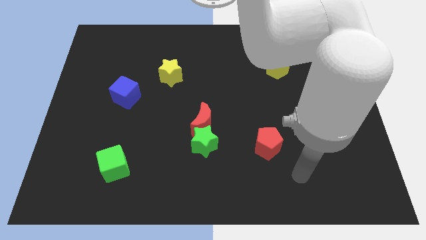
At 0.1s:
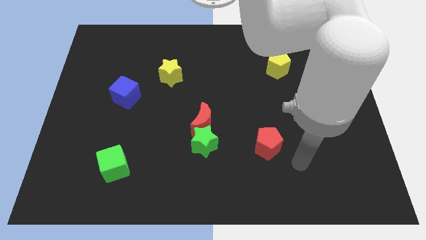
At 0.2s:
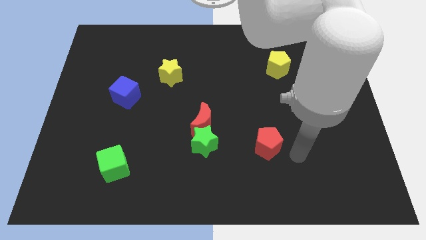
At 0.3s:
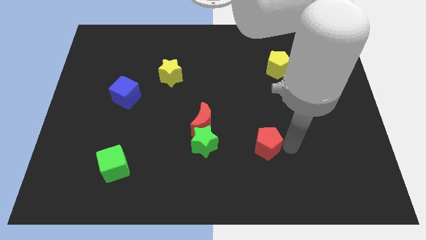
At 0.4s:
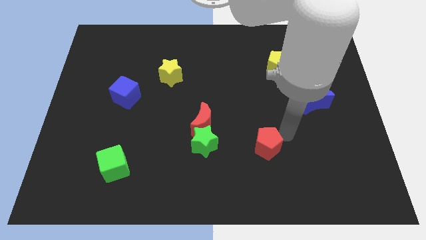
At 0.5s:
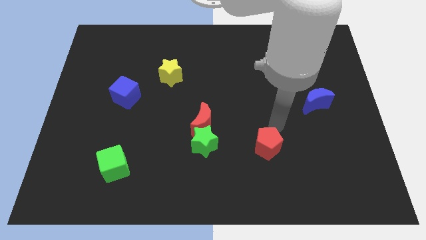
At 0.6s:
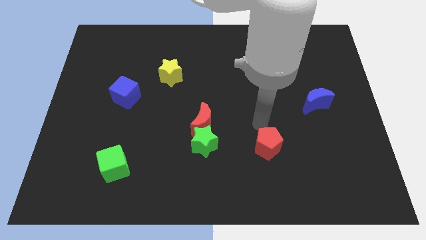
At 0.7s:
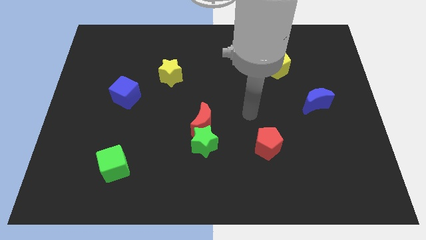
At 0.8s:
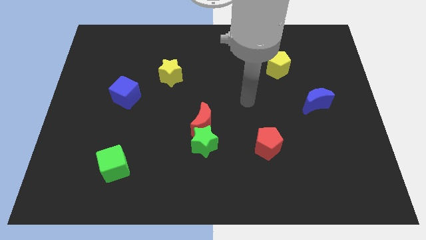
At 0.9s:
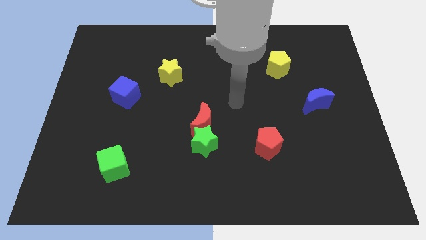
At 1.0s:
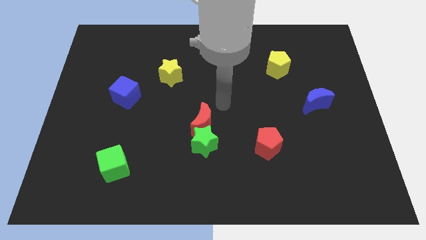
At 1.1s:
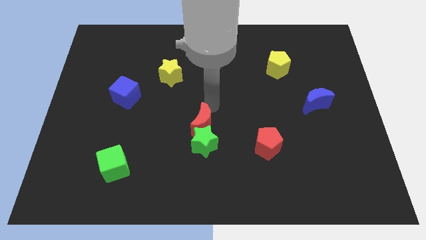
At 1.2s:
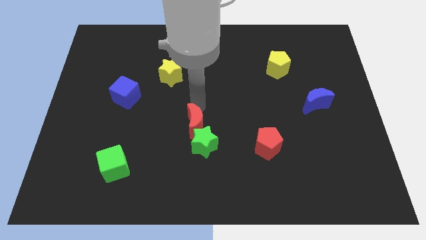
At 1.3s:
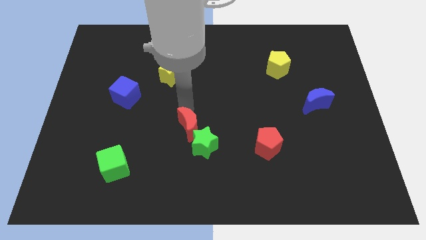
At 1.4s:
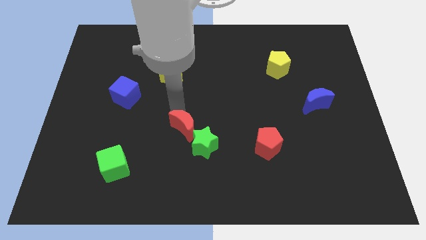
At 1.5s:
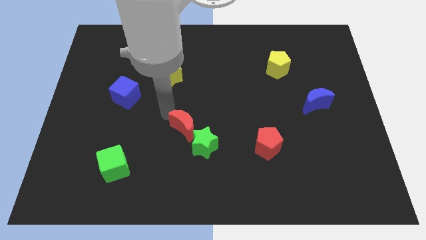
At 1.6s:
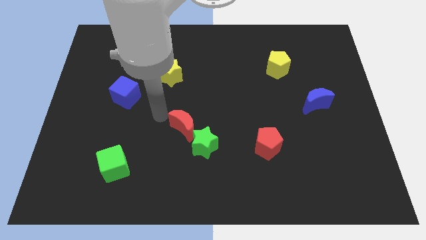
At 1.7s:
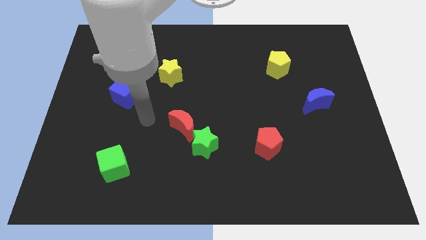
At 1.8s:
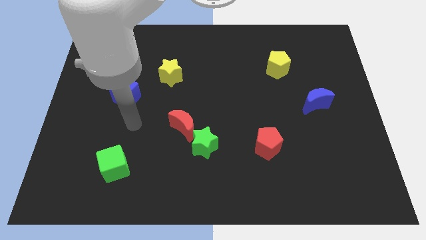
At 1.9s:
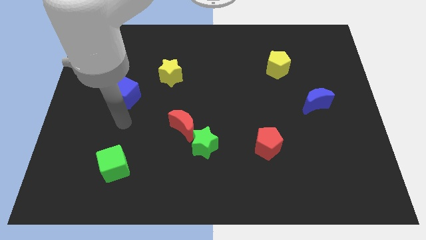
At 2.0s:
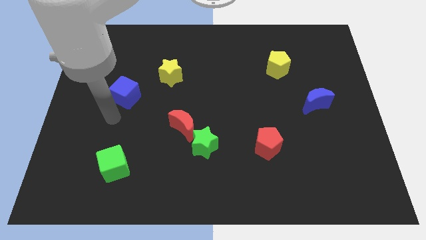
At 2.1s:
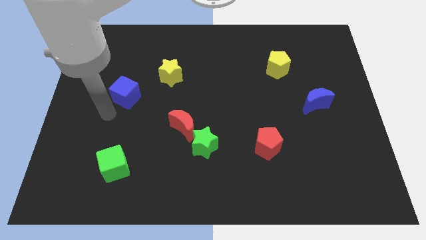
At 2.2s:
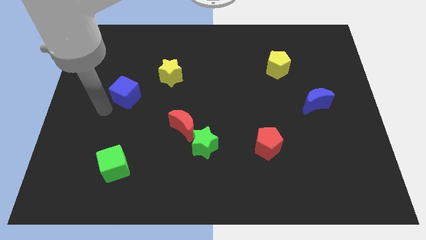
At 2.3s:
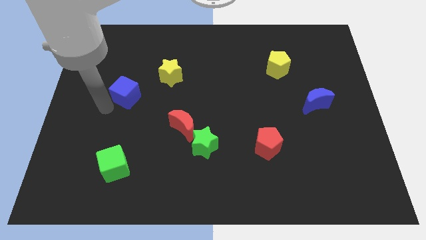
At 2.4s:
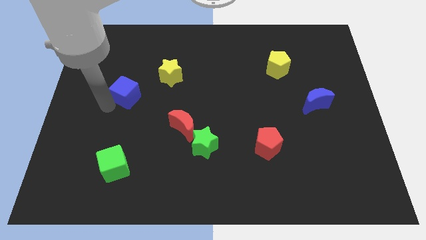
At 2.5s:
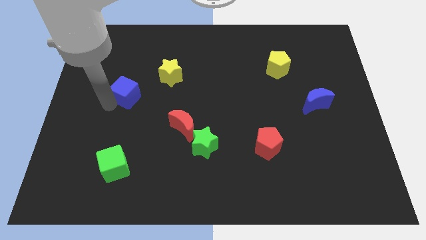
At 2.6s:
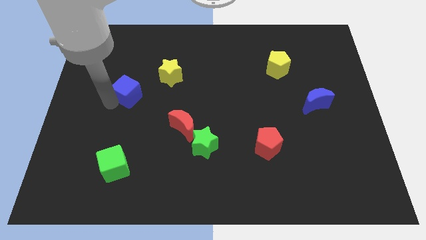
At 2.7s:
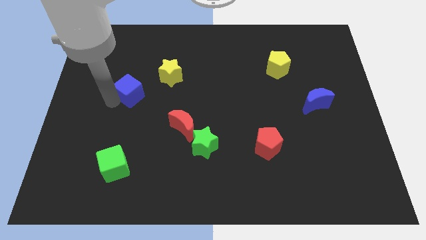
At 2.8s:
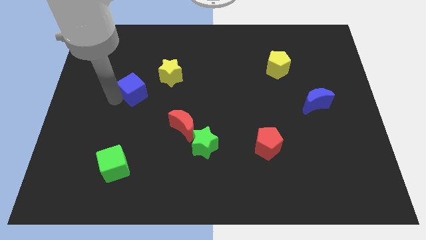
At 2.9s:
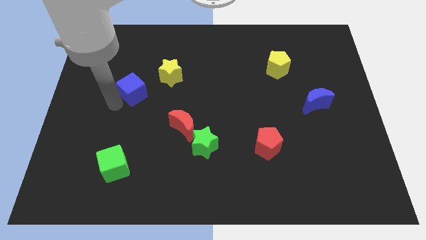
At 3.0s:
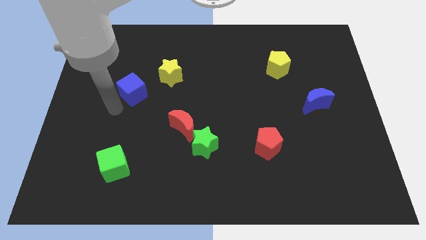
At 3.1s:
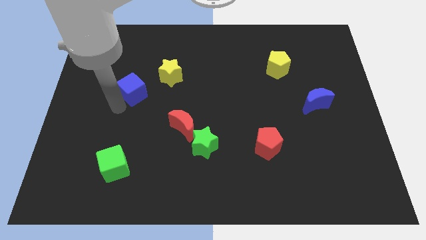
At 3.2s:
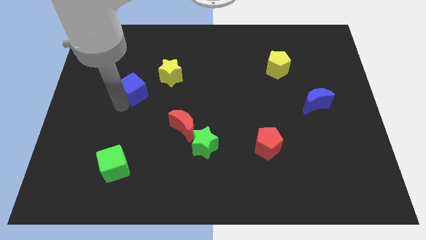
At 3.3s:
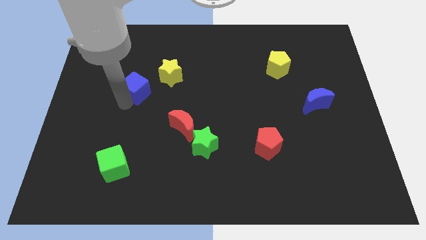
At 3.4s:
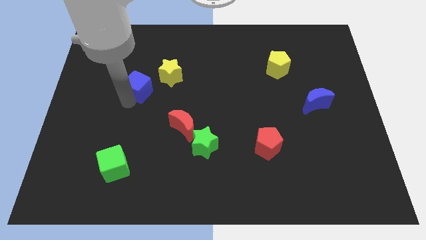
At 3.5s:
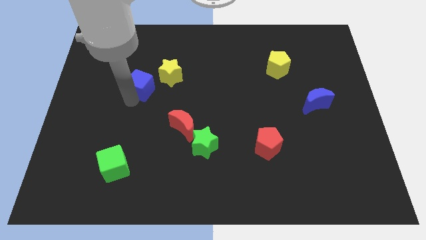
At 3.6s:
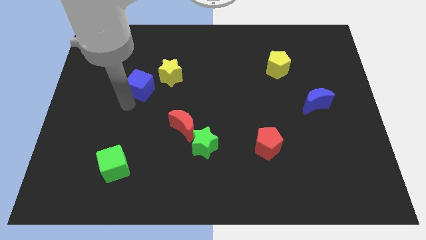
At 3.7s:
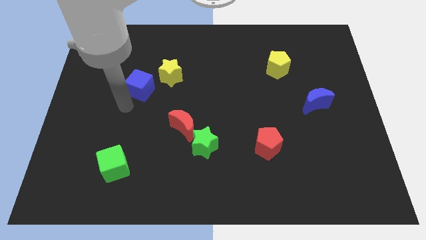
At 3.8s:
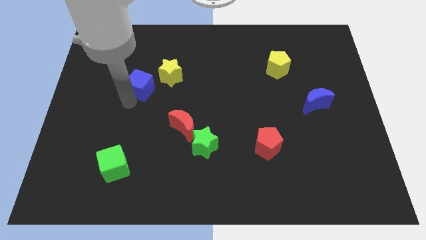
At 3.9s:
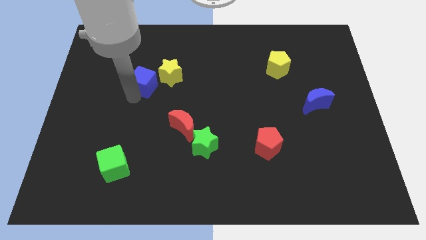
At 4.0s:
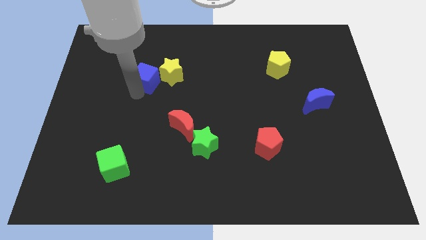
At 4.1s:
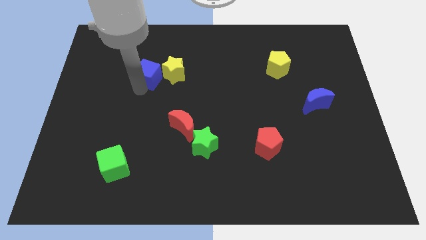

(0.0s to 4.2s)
slide the blue cube upwards and right a little

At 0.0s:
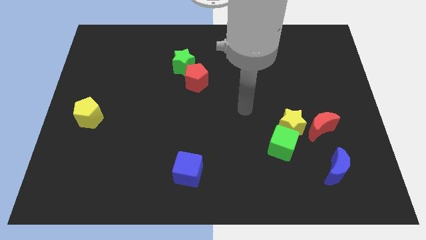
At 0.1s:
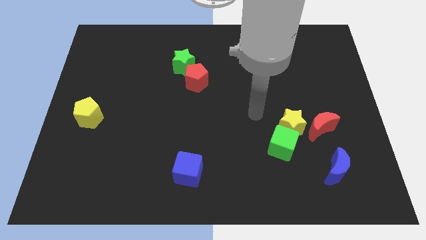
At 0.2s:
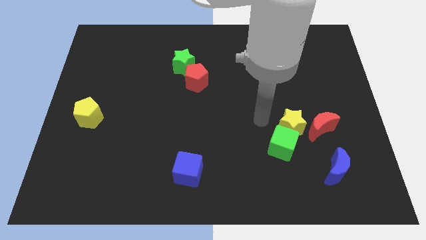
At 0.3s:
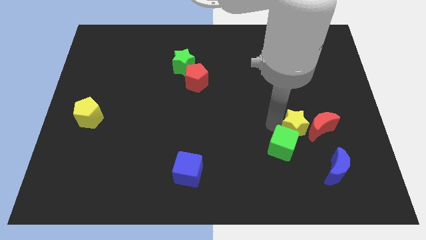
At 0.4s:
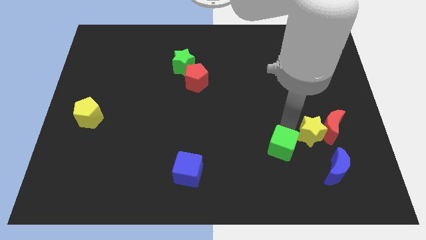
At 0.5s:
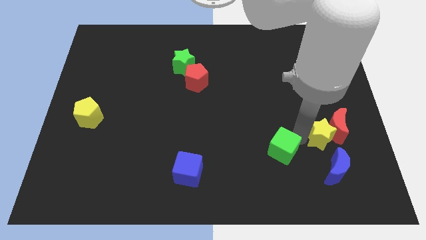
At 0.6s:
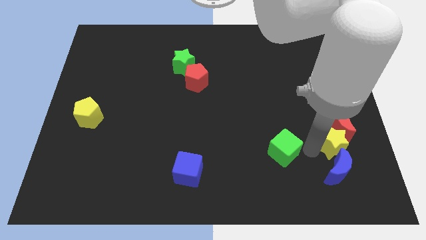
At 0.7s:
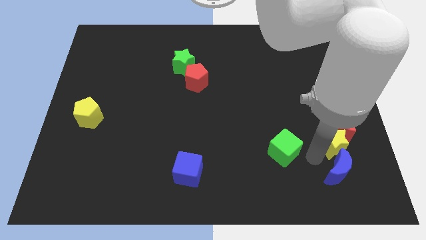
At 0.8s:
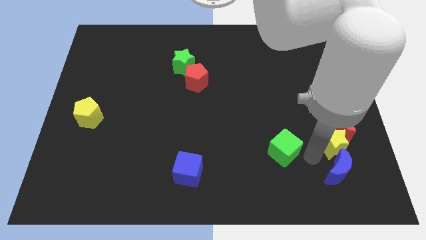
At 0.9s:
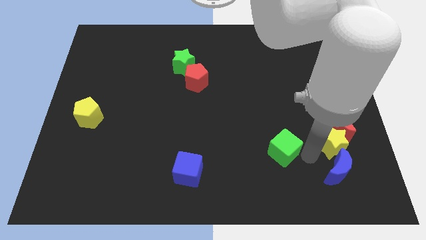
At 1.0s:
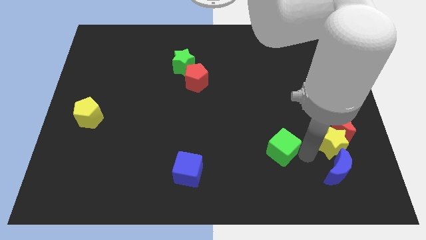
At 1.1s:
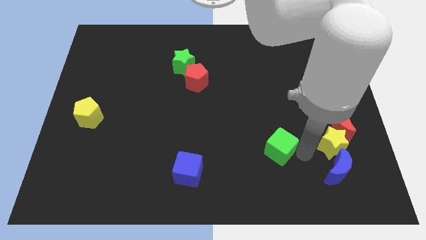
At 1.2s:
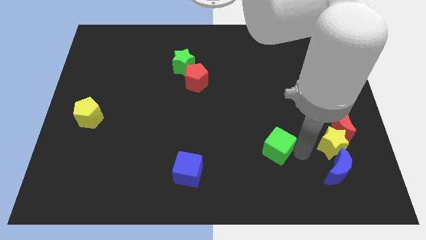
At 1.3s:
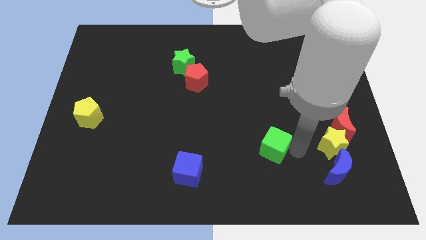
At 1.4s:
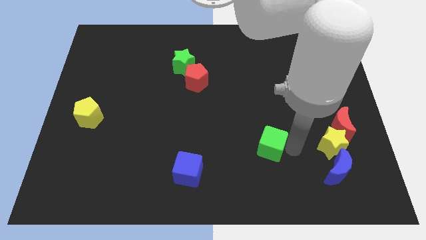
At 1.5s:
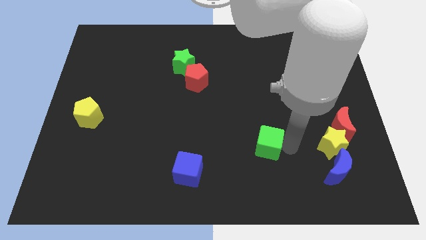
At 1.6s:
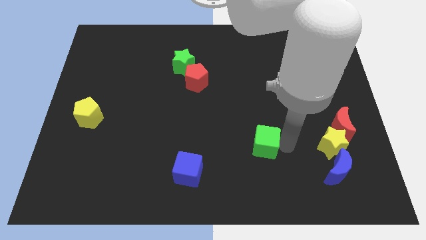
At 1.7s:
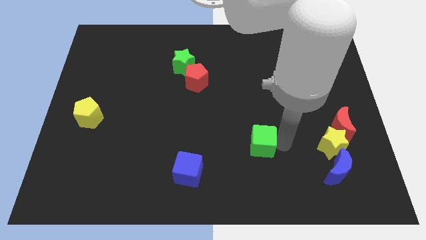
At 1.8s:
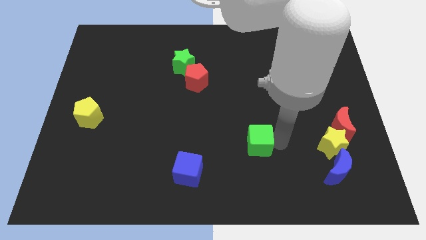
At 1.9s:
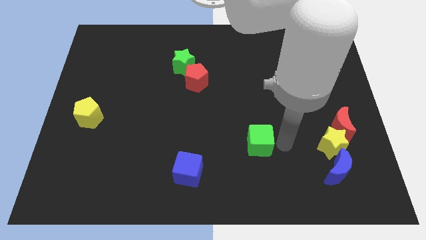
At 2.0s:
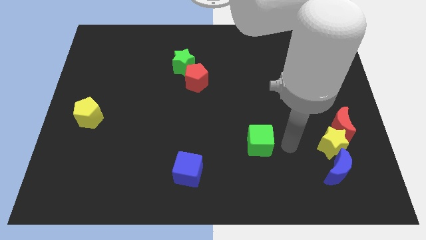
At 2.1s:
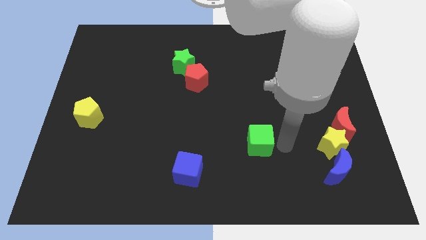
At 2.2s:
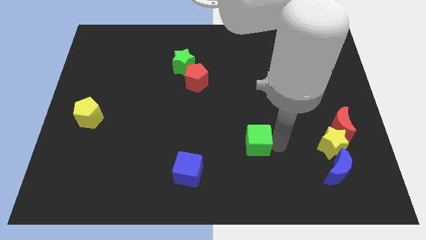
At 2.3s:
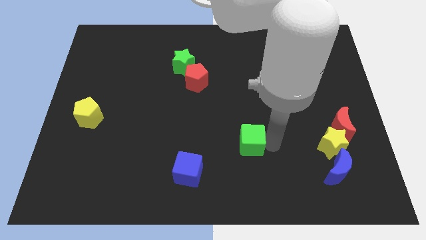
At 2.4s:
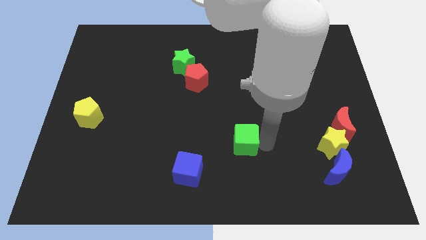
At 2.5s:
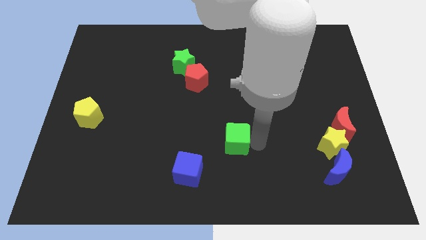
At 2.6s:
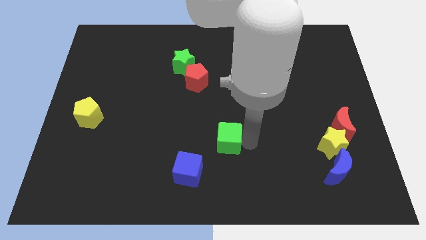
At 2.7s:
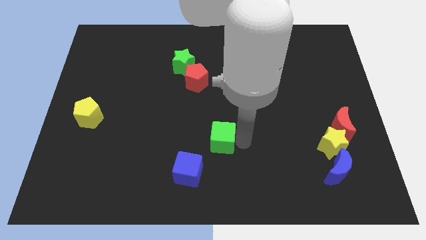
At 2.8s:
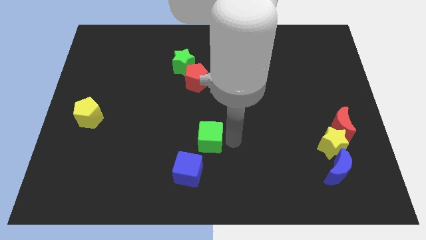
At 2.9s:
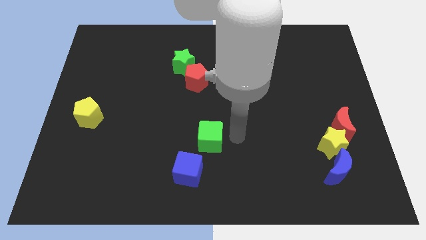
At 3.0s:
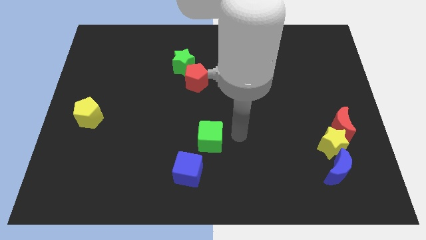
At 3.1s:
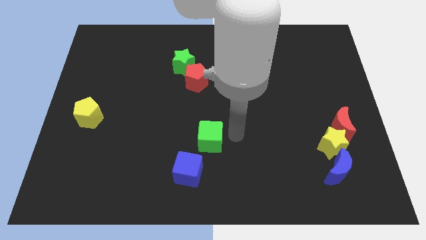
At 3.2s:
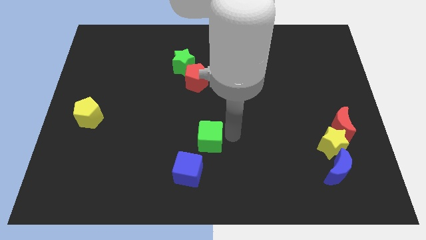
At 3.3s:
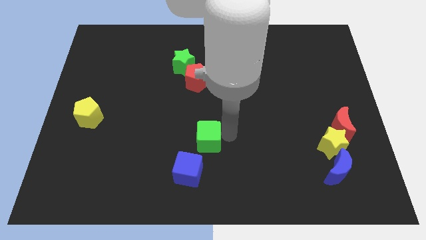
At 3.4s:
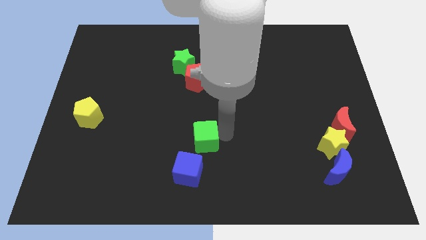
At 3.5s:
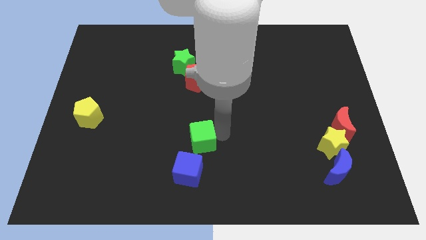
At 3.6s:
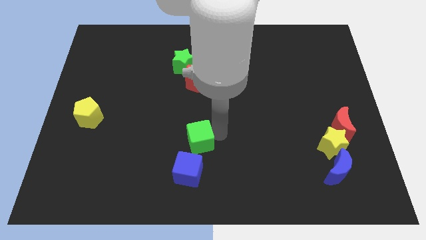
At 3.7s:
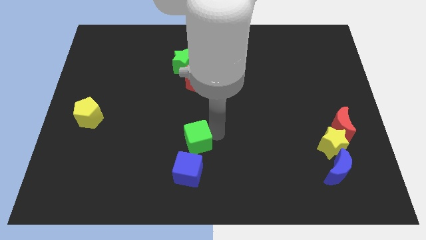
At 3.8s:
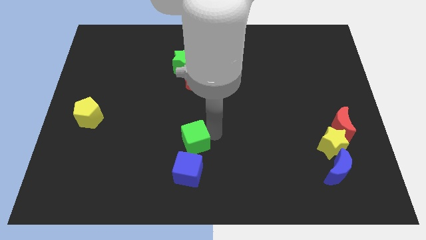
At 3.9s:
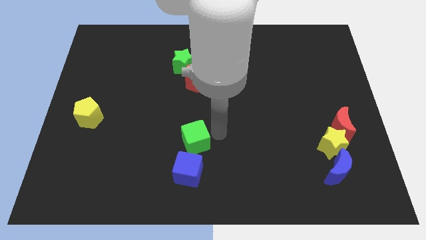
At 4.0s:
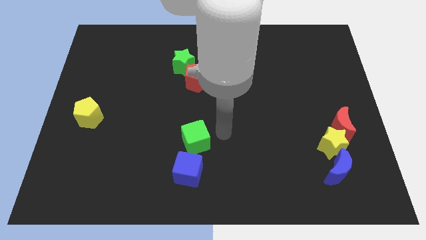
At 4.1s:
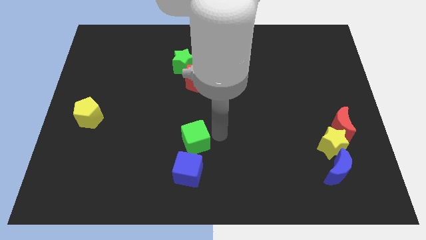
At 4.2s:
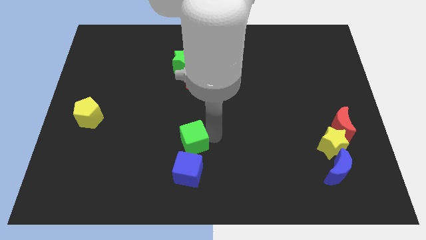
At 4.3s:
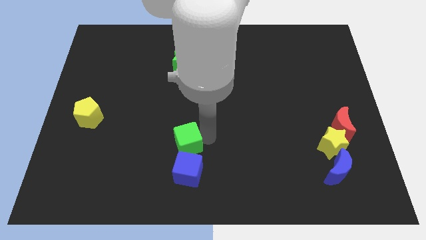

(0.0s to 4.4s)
push the green cube to the left
